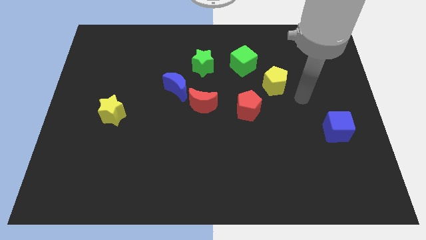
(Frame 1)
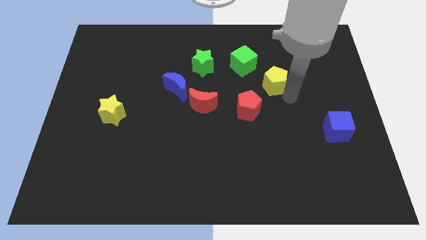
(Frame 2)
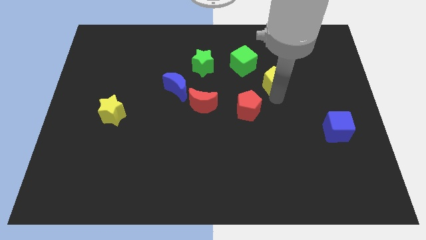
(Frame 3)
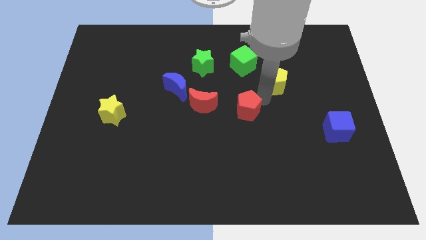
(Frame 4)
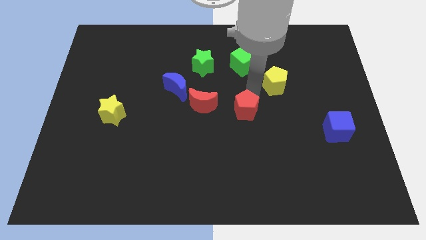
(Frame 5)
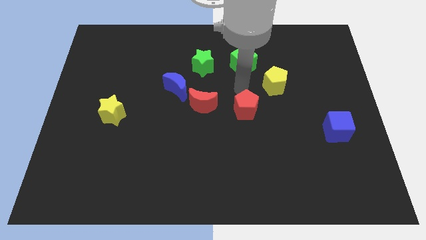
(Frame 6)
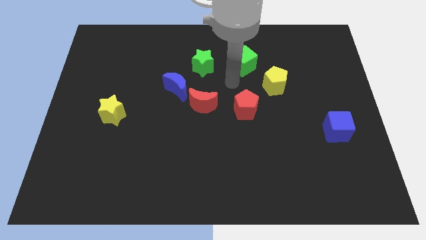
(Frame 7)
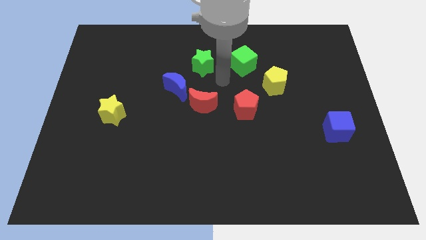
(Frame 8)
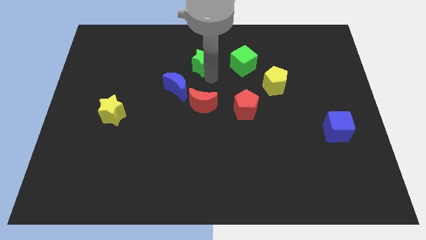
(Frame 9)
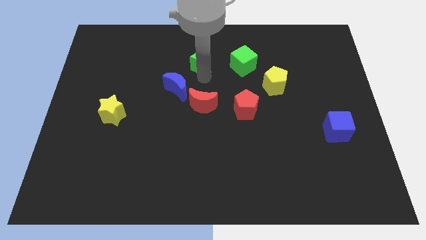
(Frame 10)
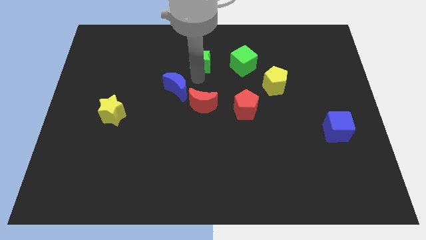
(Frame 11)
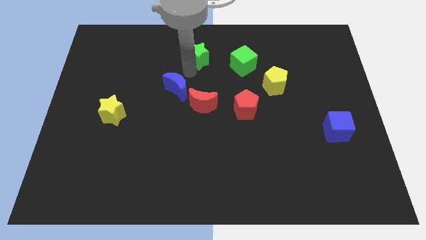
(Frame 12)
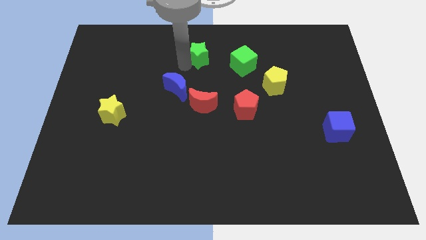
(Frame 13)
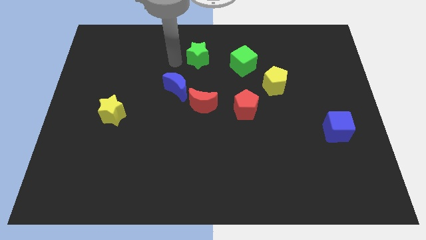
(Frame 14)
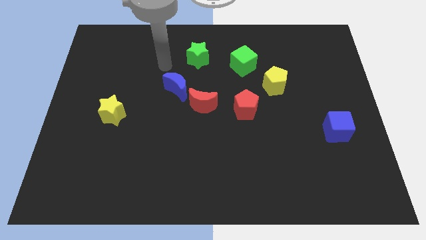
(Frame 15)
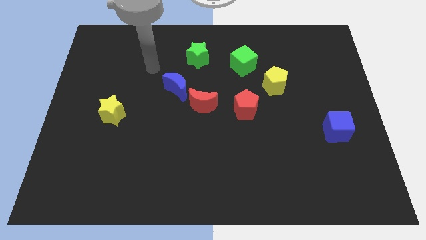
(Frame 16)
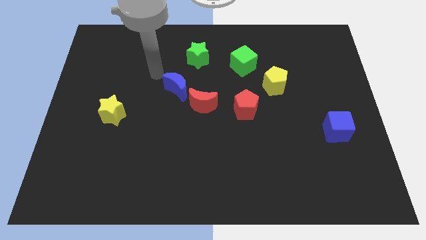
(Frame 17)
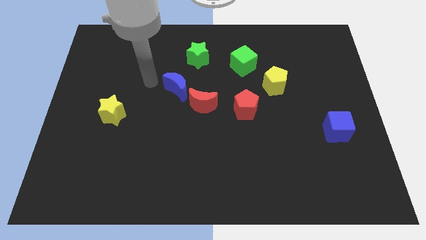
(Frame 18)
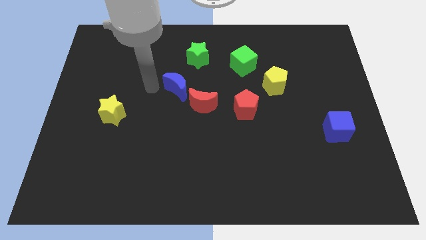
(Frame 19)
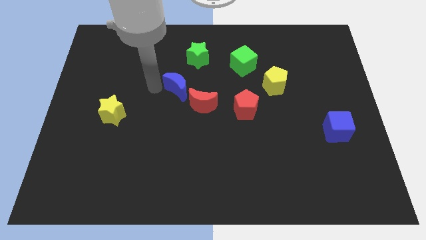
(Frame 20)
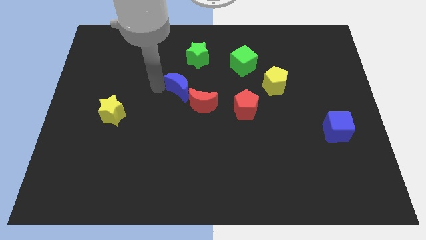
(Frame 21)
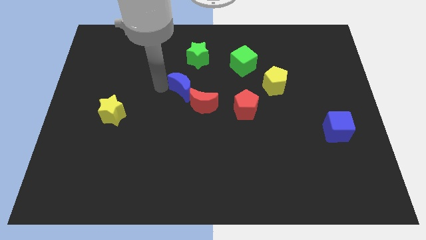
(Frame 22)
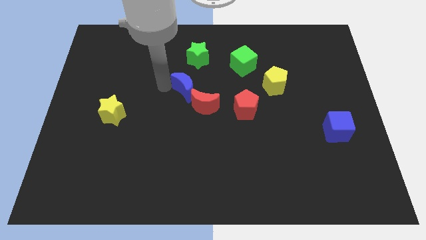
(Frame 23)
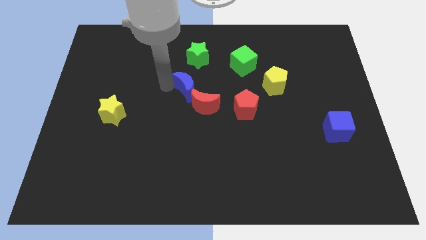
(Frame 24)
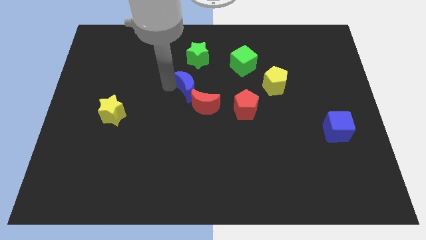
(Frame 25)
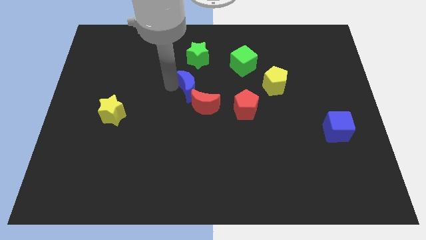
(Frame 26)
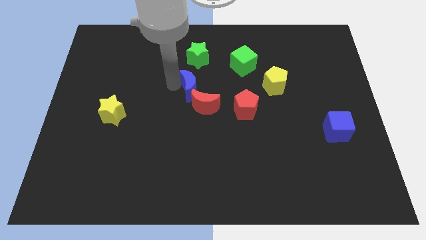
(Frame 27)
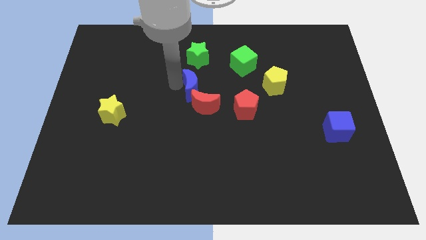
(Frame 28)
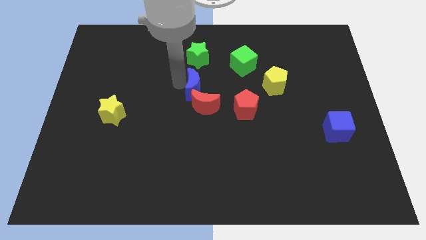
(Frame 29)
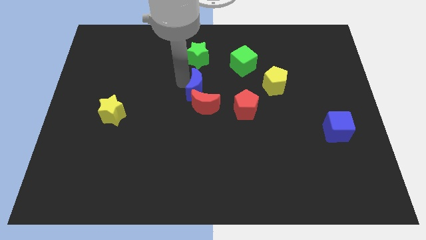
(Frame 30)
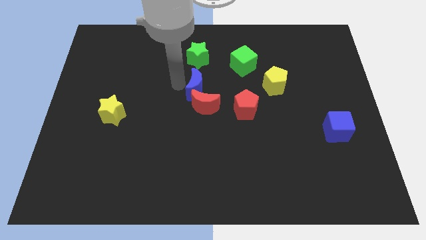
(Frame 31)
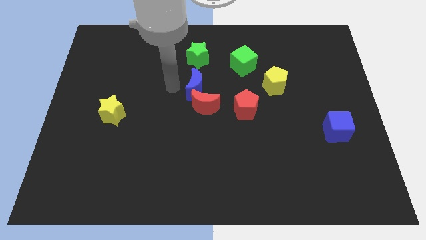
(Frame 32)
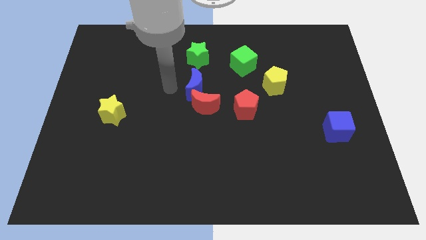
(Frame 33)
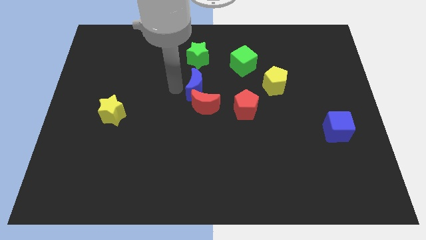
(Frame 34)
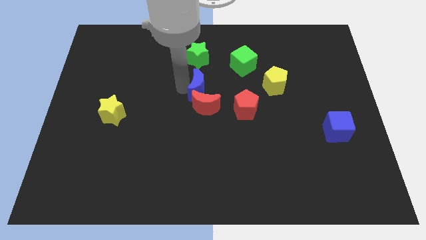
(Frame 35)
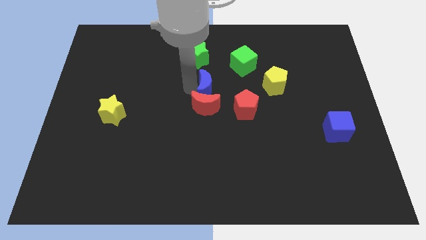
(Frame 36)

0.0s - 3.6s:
slide the blue moon slightly to the right

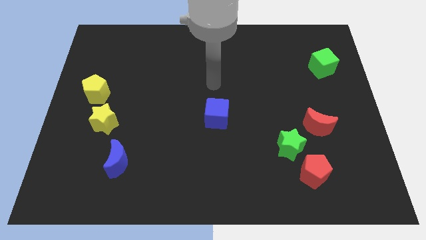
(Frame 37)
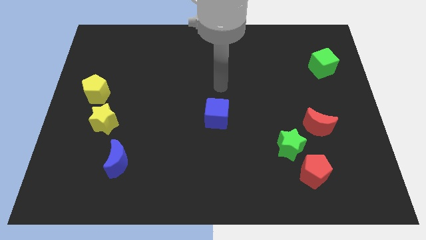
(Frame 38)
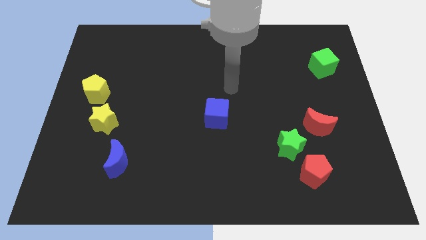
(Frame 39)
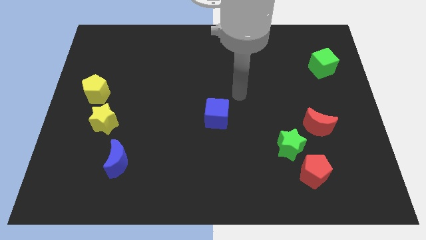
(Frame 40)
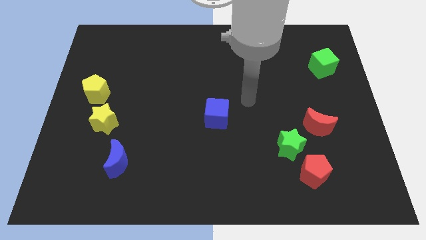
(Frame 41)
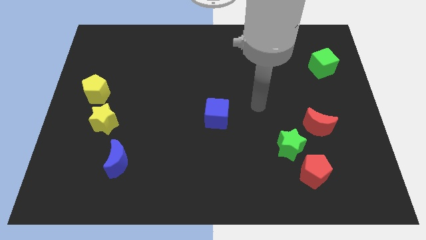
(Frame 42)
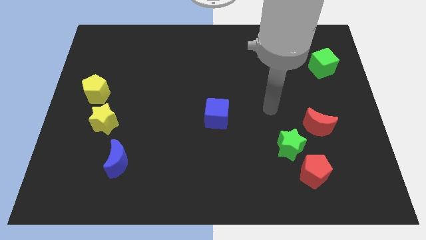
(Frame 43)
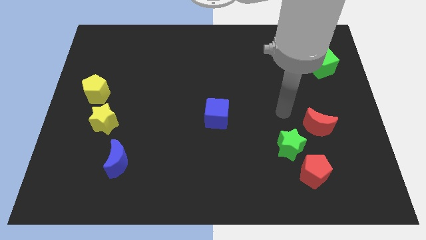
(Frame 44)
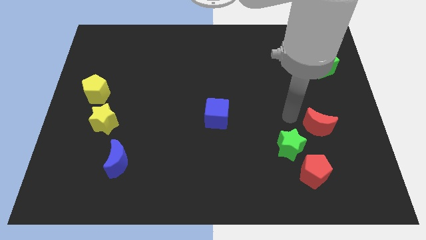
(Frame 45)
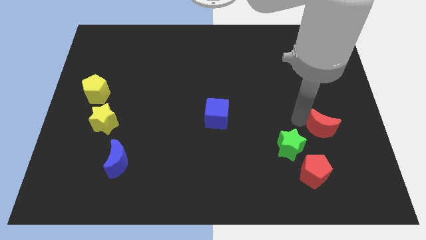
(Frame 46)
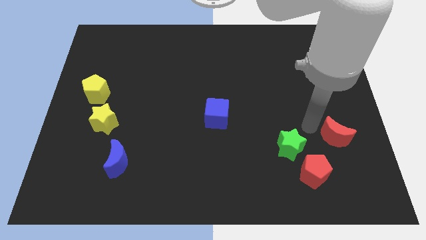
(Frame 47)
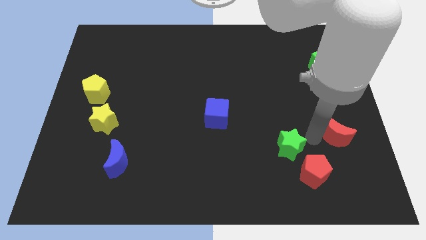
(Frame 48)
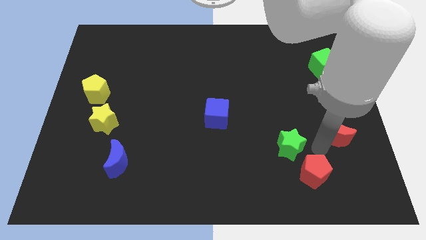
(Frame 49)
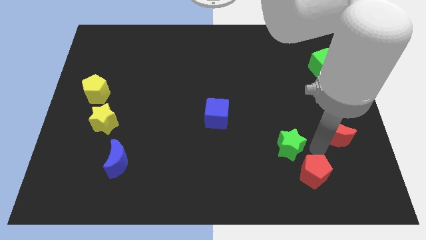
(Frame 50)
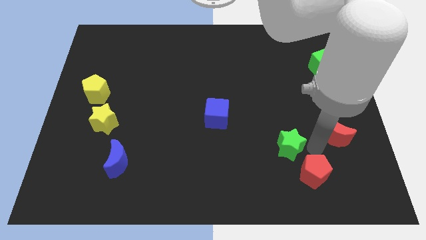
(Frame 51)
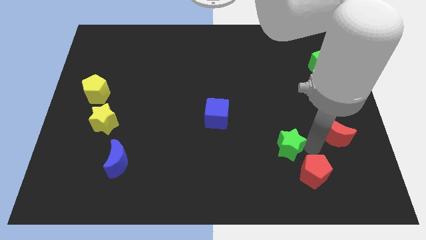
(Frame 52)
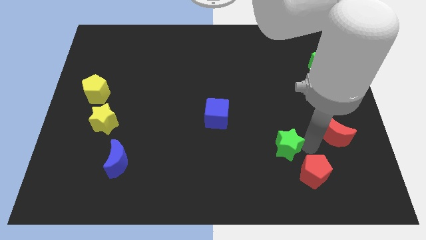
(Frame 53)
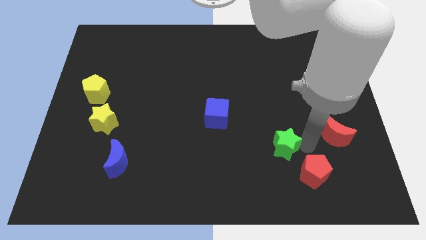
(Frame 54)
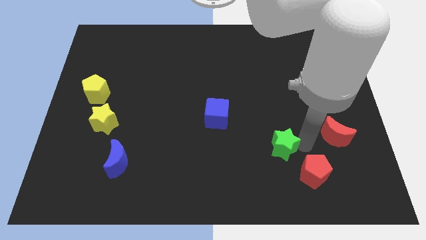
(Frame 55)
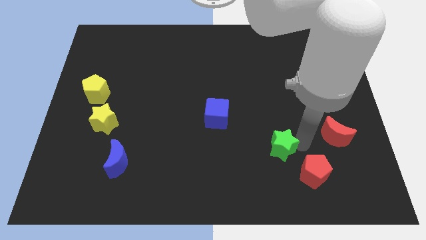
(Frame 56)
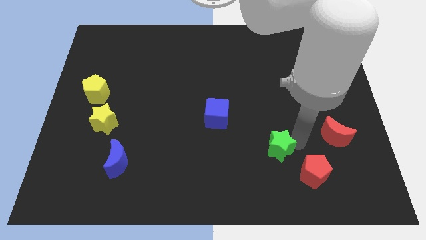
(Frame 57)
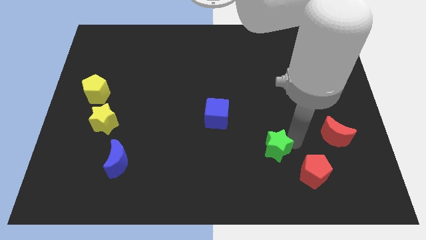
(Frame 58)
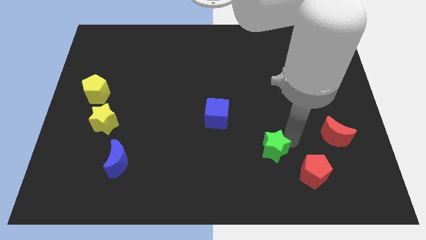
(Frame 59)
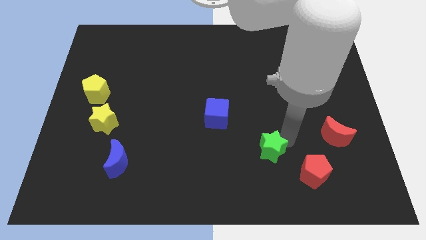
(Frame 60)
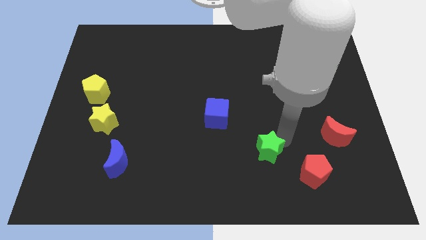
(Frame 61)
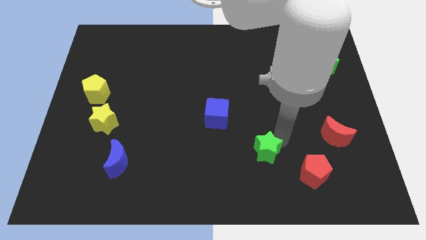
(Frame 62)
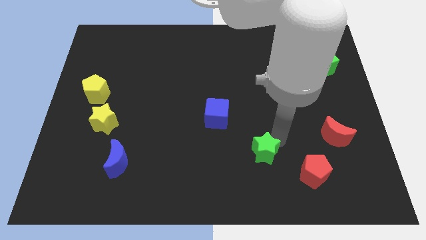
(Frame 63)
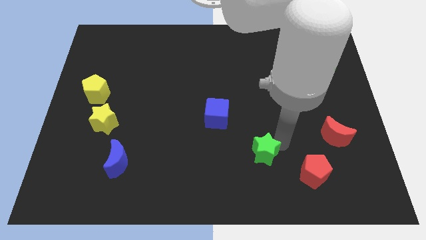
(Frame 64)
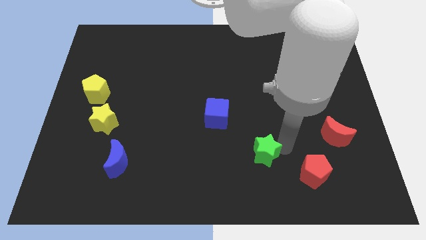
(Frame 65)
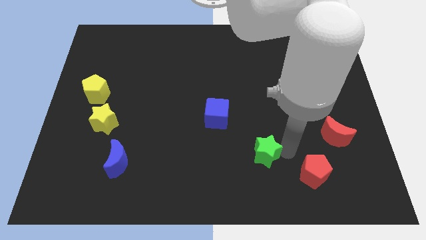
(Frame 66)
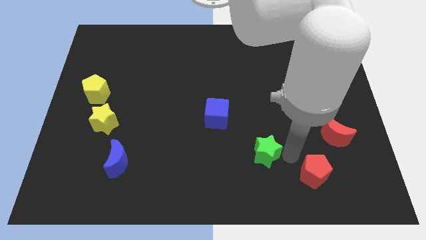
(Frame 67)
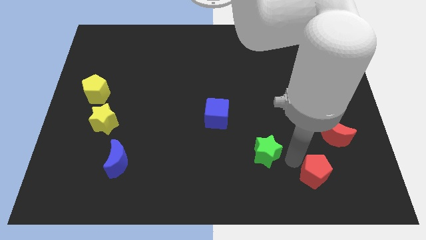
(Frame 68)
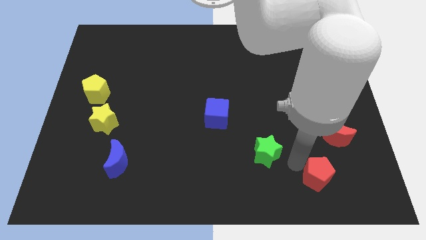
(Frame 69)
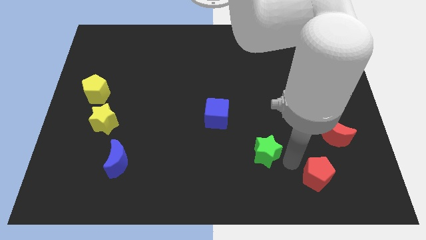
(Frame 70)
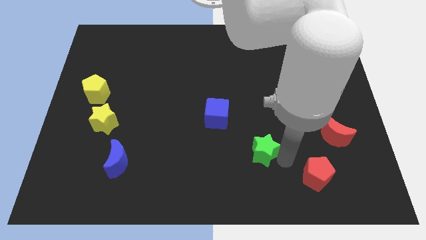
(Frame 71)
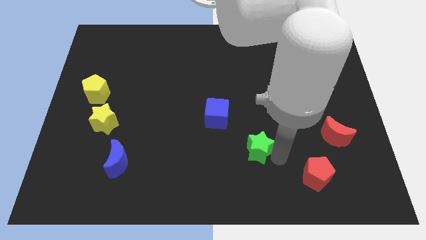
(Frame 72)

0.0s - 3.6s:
slightly slide the green star left

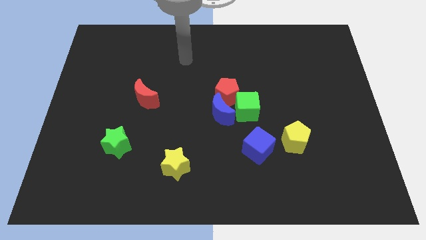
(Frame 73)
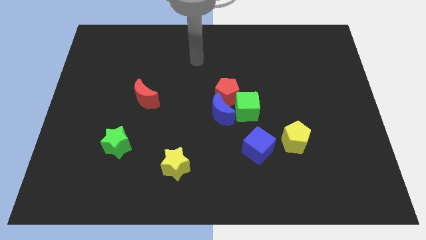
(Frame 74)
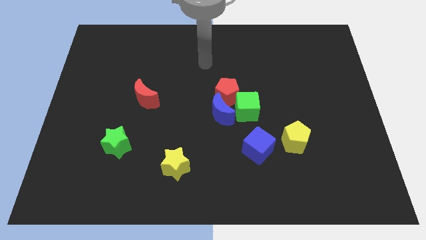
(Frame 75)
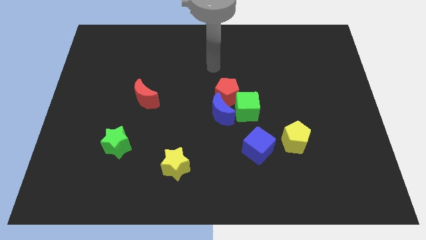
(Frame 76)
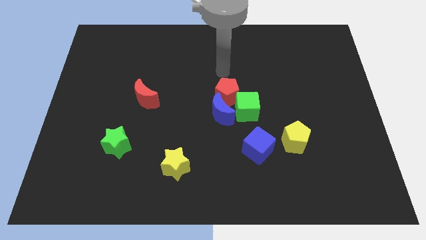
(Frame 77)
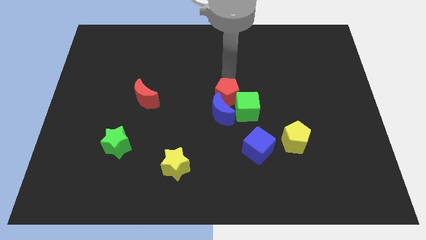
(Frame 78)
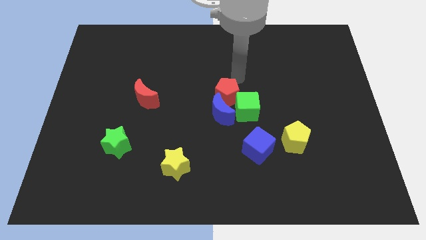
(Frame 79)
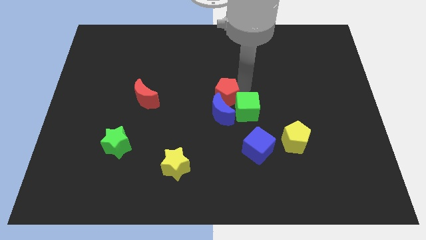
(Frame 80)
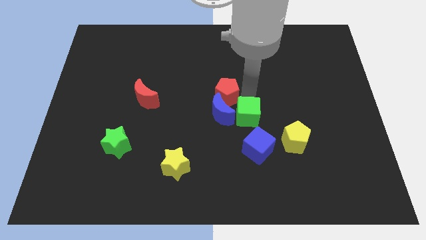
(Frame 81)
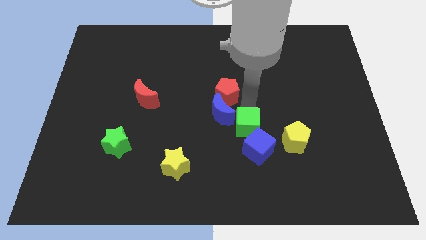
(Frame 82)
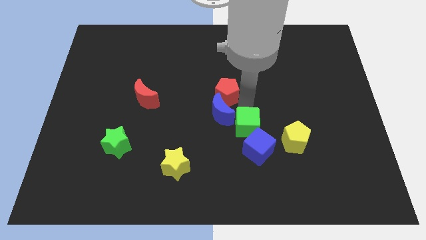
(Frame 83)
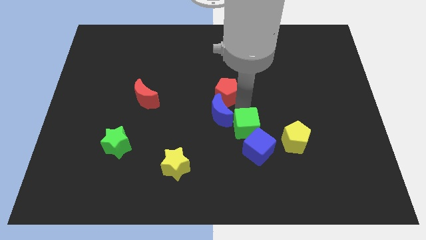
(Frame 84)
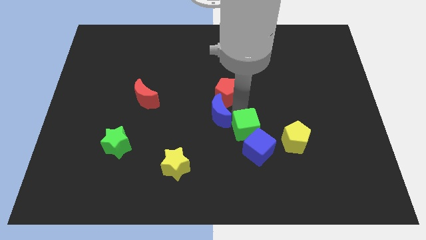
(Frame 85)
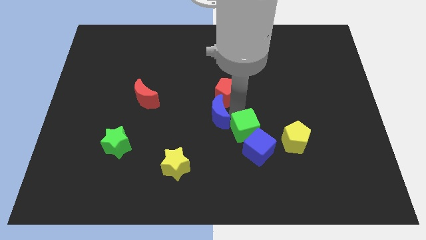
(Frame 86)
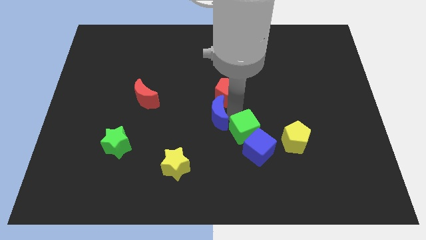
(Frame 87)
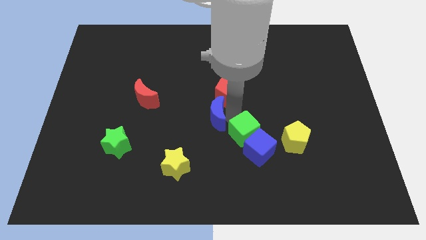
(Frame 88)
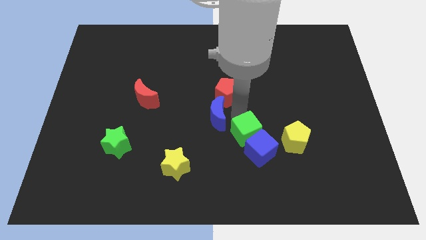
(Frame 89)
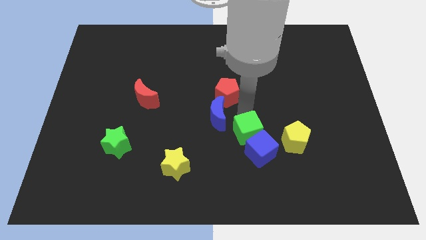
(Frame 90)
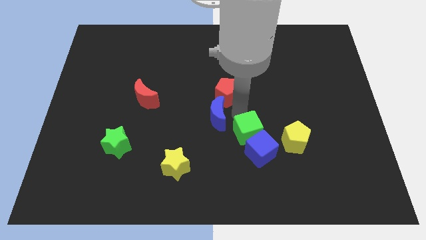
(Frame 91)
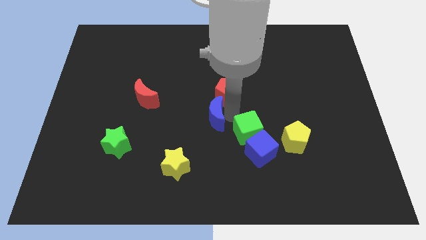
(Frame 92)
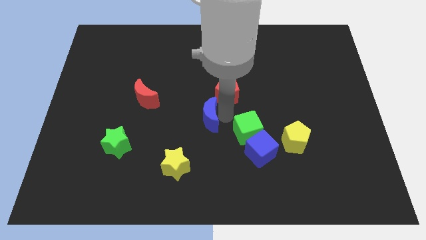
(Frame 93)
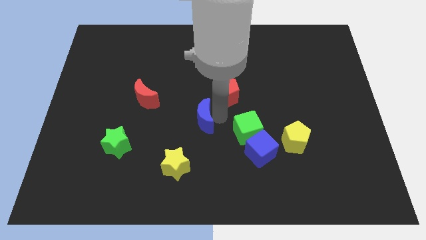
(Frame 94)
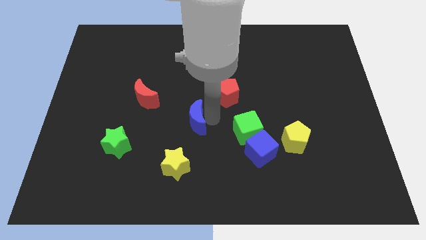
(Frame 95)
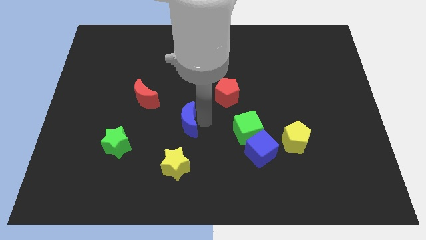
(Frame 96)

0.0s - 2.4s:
push the blue moon to the left a little bit
